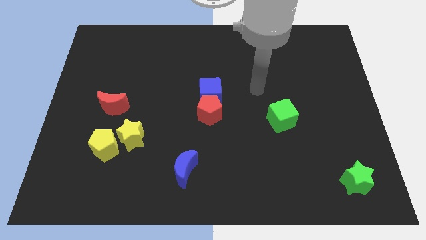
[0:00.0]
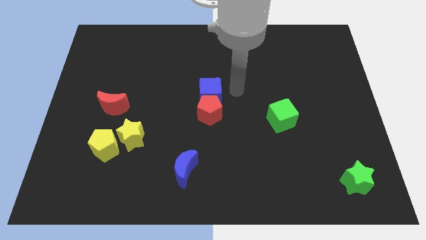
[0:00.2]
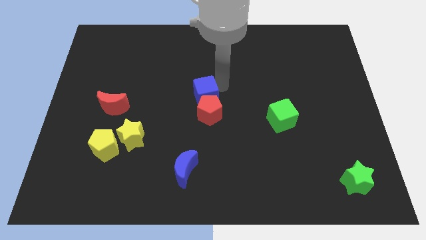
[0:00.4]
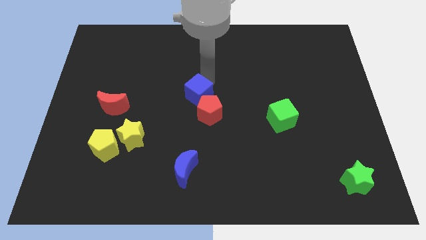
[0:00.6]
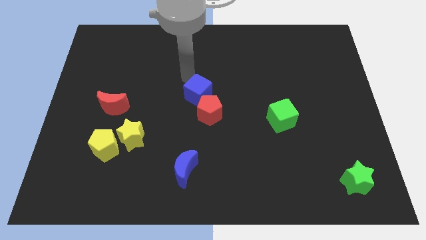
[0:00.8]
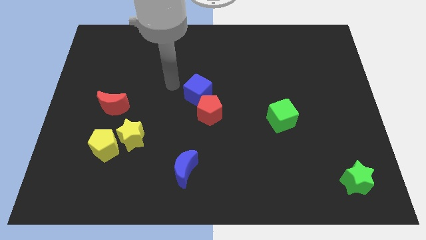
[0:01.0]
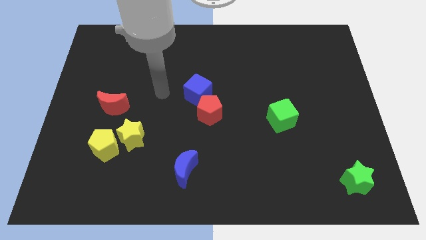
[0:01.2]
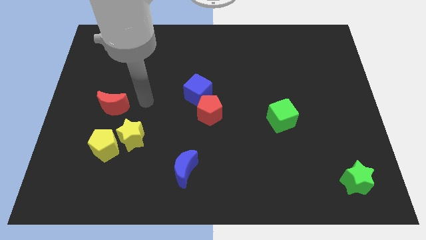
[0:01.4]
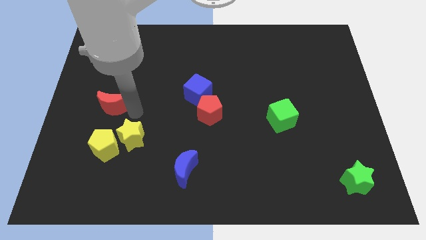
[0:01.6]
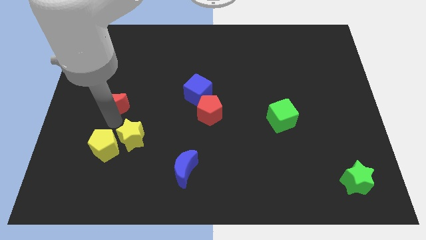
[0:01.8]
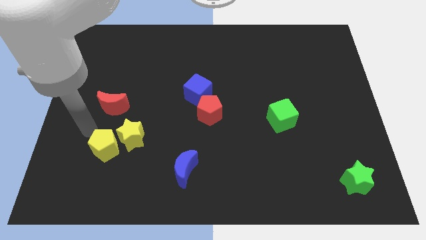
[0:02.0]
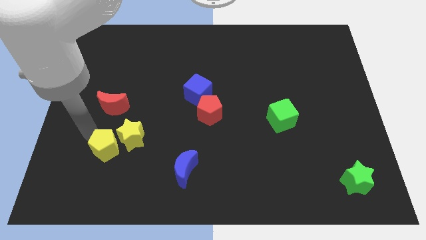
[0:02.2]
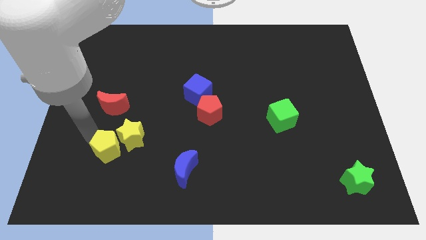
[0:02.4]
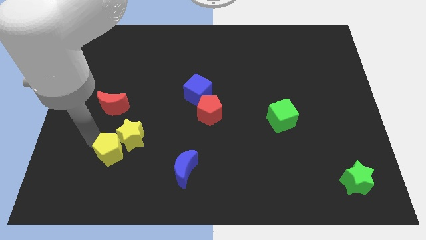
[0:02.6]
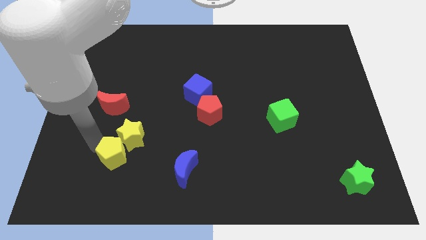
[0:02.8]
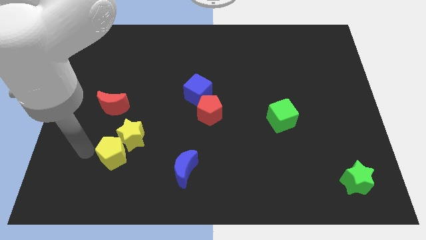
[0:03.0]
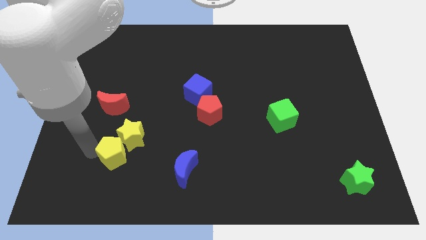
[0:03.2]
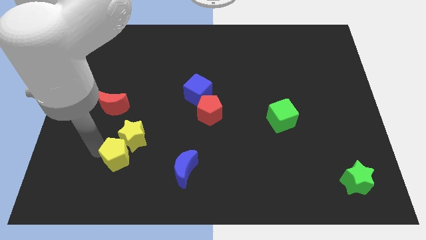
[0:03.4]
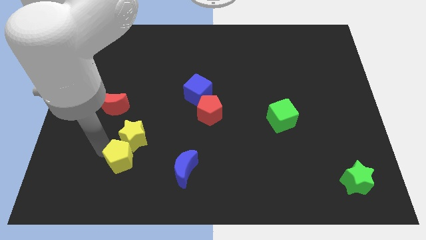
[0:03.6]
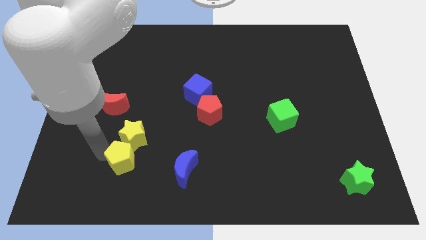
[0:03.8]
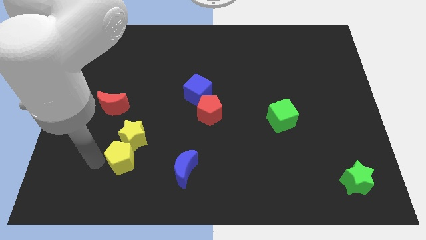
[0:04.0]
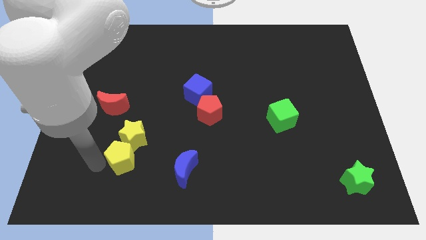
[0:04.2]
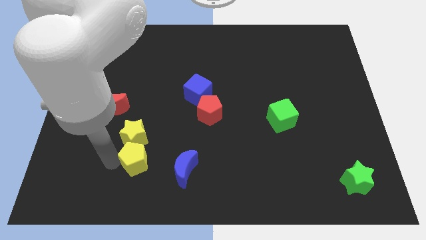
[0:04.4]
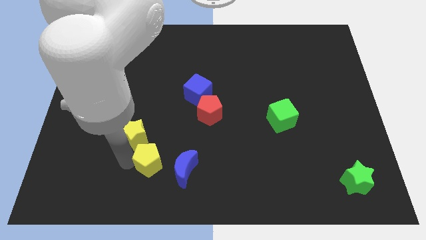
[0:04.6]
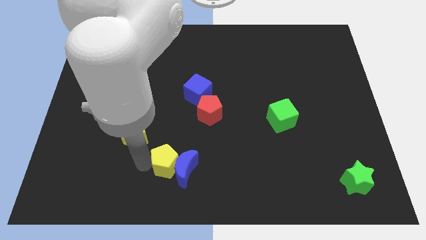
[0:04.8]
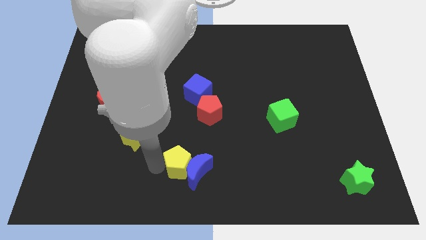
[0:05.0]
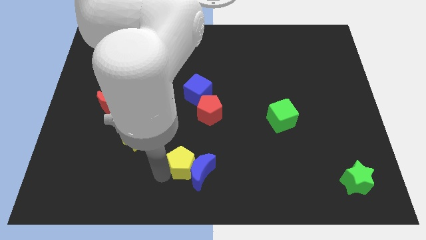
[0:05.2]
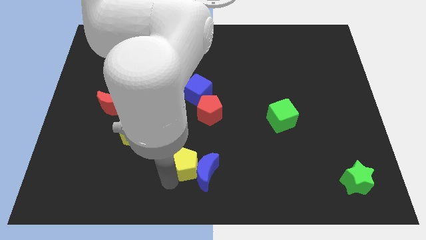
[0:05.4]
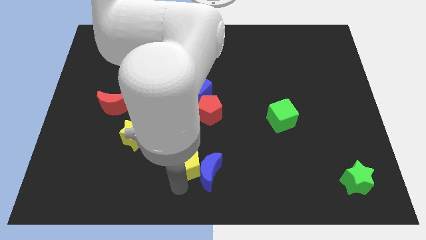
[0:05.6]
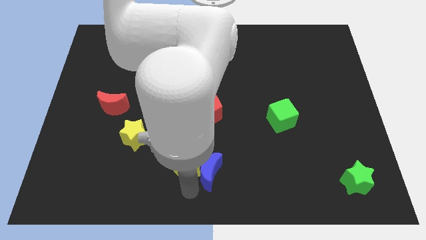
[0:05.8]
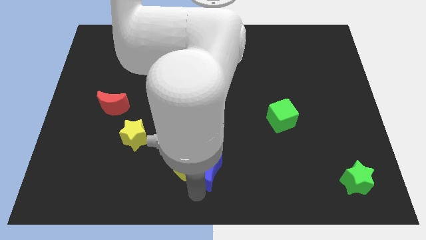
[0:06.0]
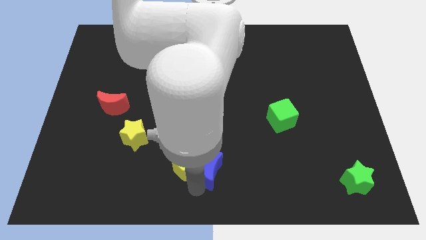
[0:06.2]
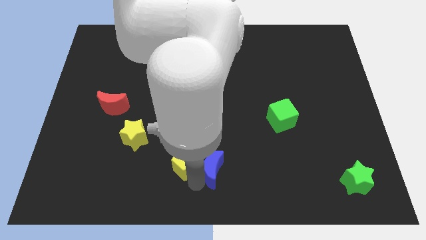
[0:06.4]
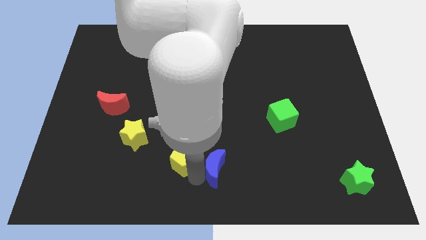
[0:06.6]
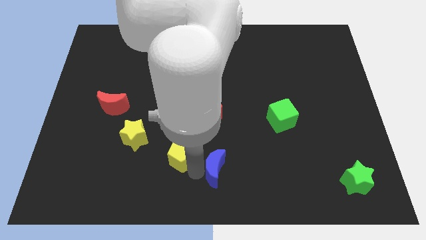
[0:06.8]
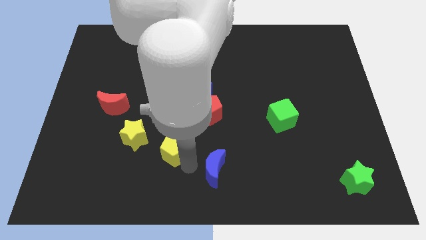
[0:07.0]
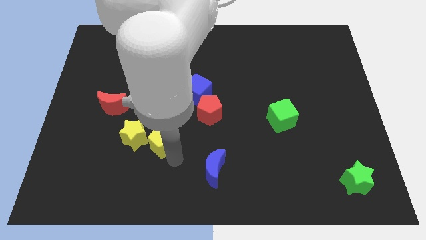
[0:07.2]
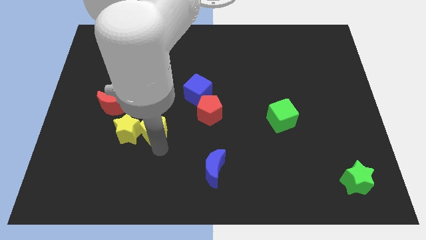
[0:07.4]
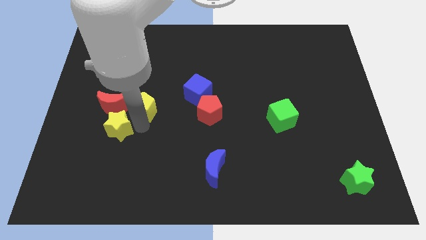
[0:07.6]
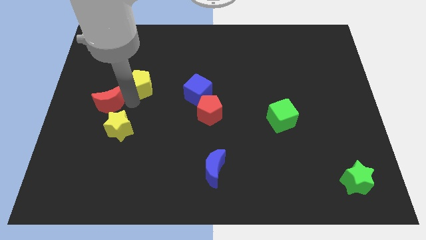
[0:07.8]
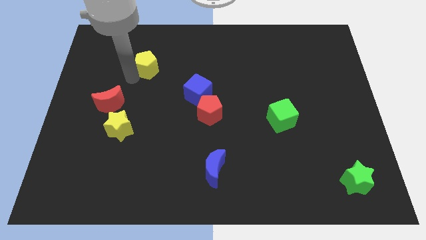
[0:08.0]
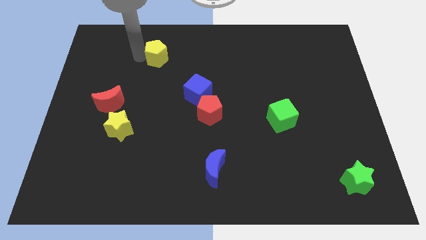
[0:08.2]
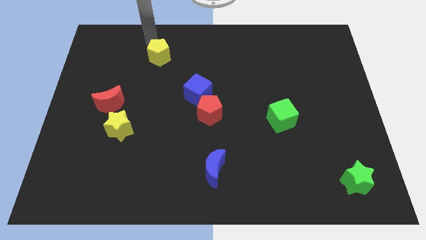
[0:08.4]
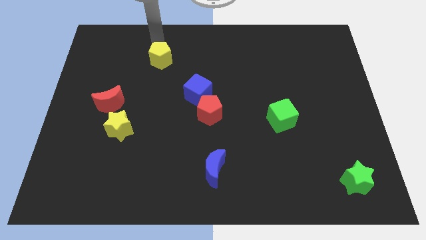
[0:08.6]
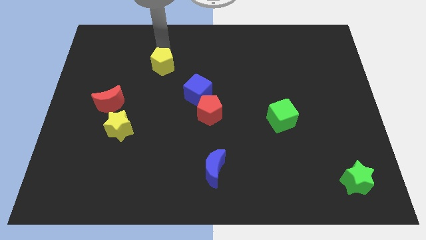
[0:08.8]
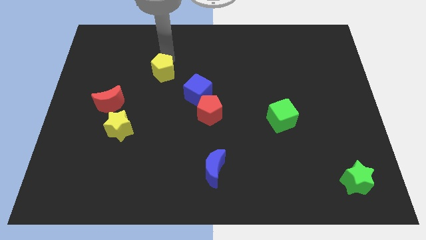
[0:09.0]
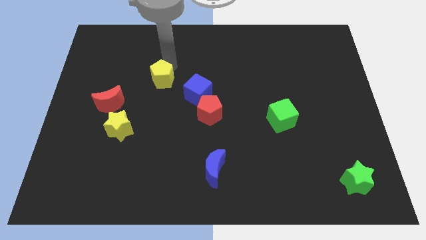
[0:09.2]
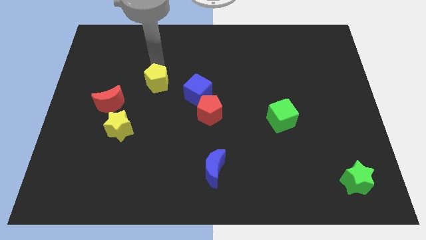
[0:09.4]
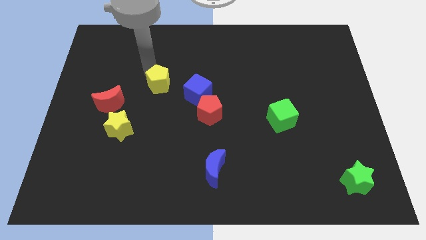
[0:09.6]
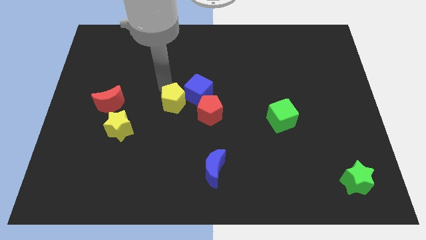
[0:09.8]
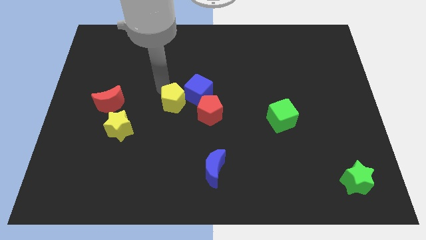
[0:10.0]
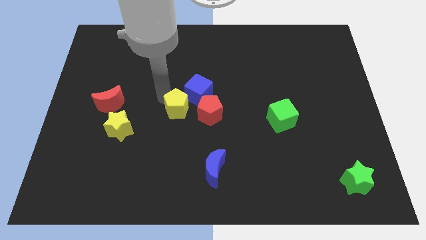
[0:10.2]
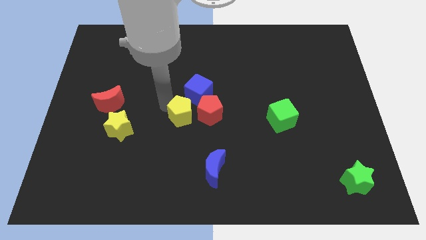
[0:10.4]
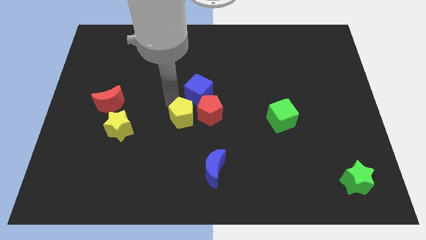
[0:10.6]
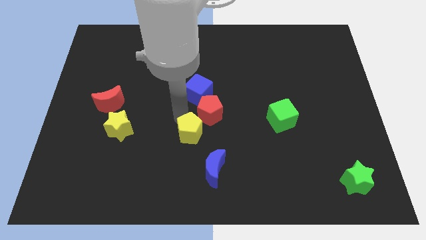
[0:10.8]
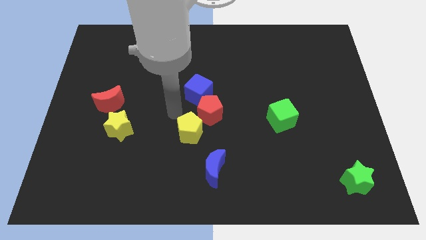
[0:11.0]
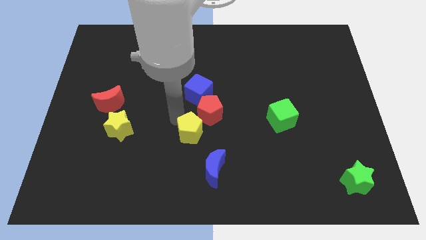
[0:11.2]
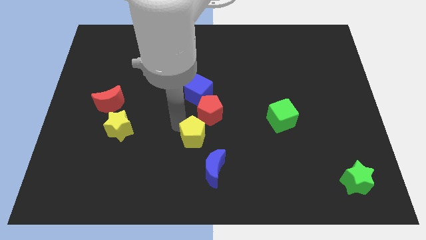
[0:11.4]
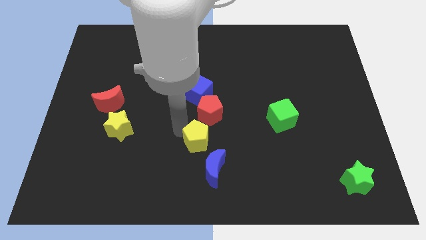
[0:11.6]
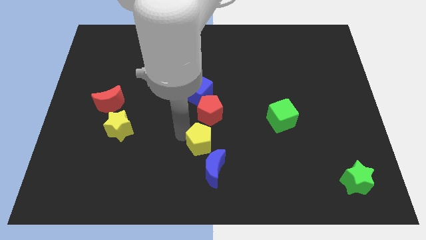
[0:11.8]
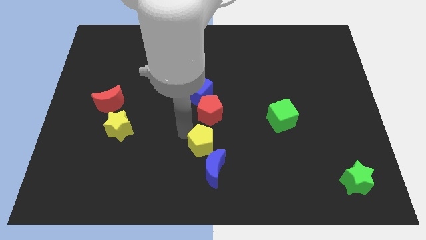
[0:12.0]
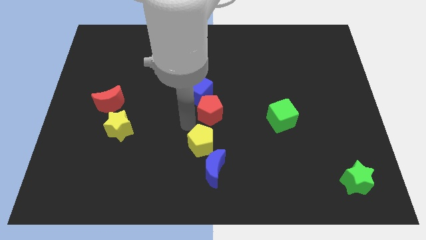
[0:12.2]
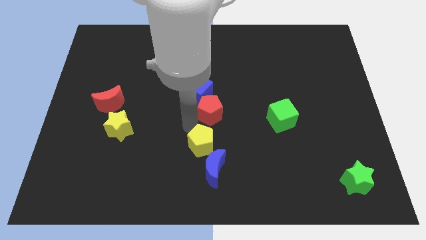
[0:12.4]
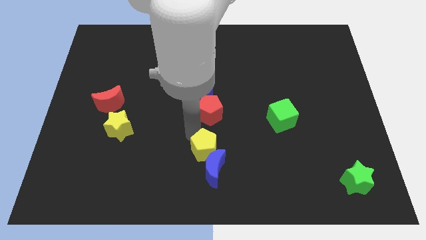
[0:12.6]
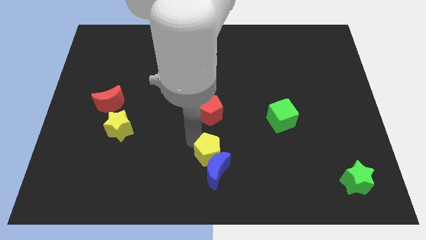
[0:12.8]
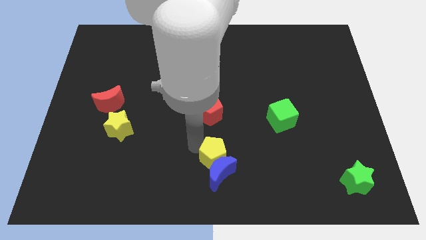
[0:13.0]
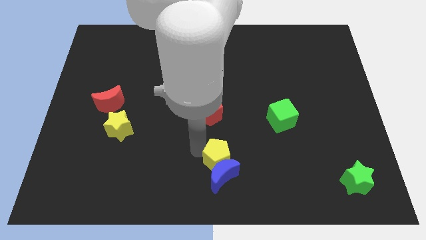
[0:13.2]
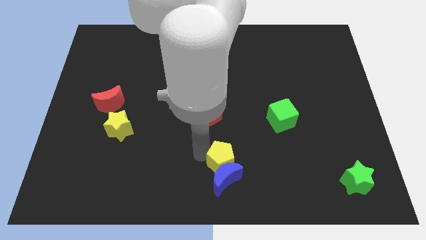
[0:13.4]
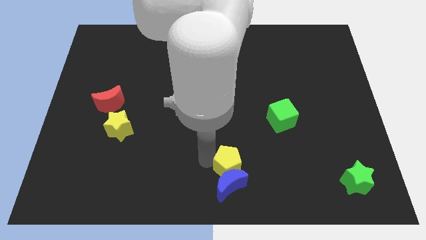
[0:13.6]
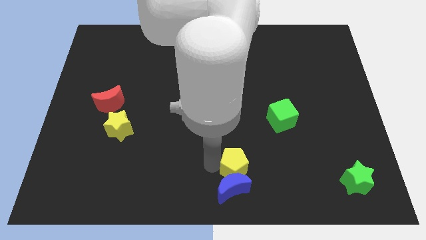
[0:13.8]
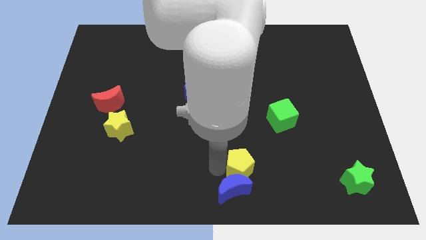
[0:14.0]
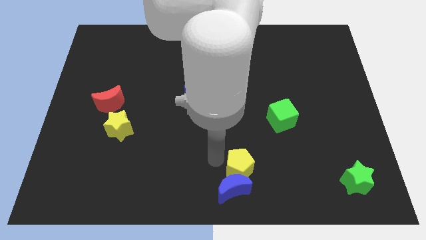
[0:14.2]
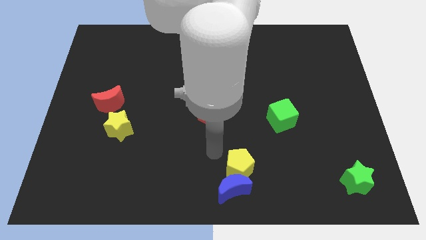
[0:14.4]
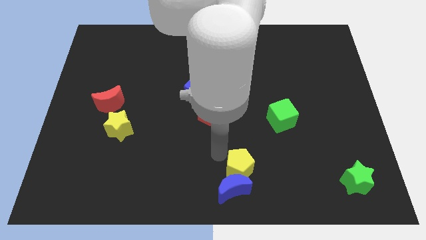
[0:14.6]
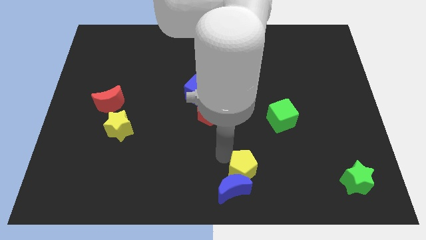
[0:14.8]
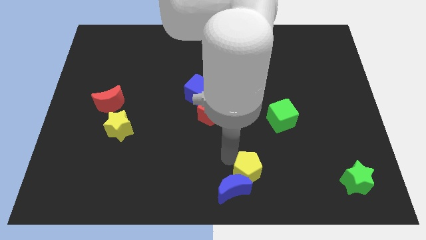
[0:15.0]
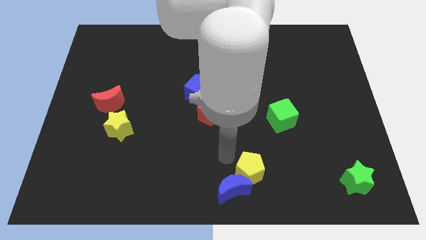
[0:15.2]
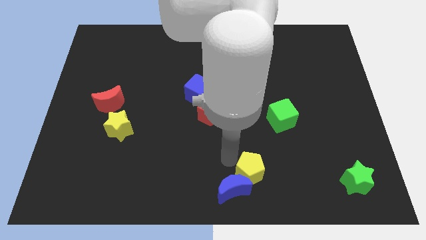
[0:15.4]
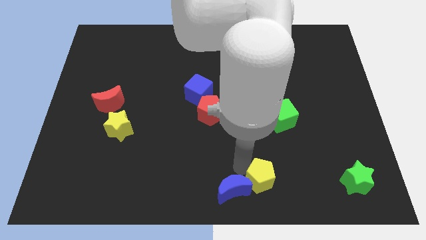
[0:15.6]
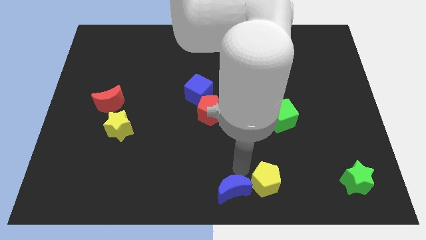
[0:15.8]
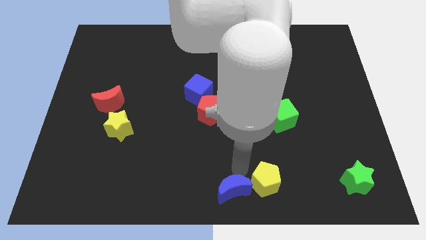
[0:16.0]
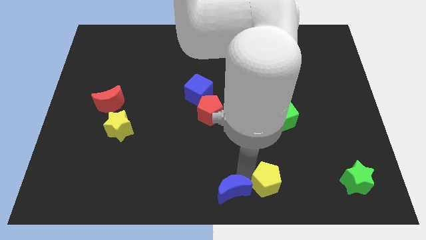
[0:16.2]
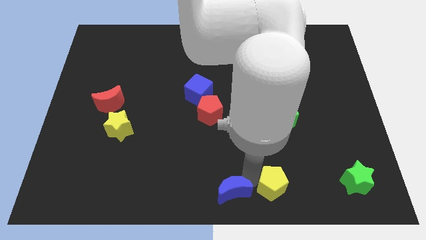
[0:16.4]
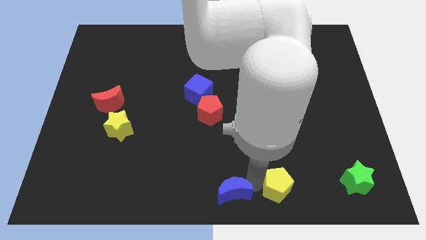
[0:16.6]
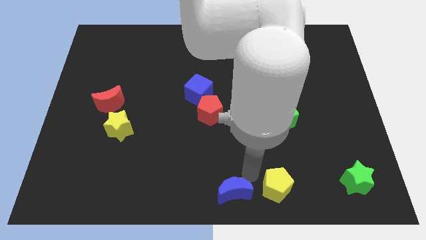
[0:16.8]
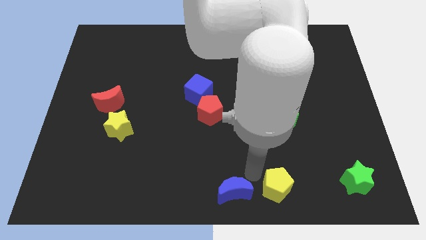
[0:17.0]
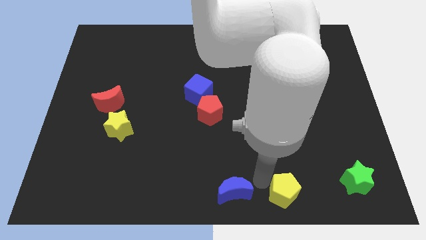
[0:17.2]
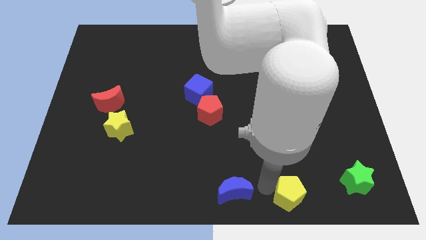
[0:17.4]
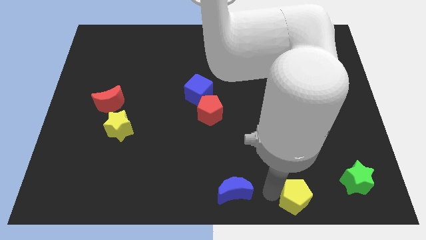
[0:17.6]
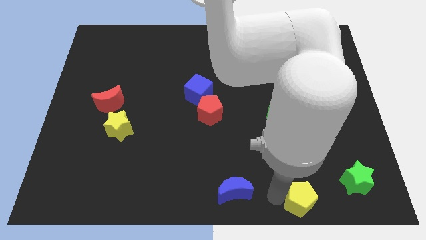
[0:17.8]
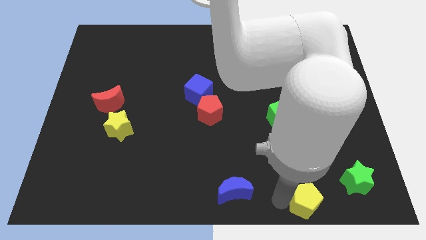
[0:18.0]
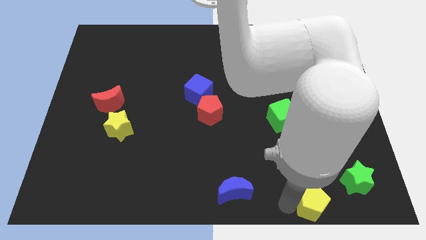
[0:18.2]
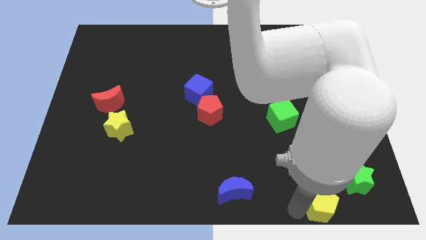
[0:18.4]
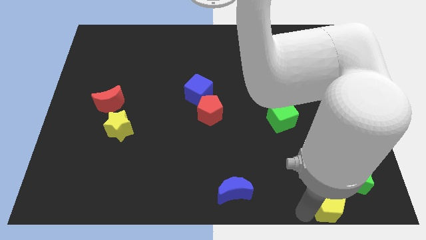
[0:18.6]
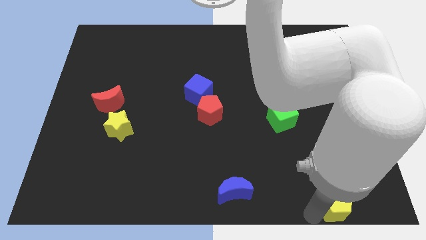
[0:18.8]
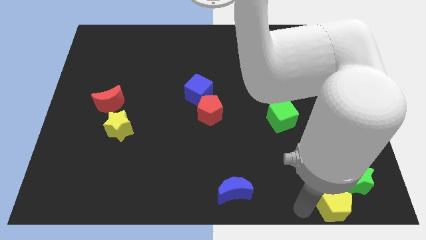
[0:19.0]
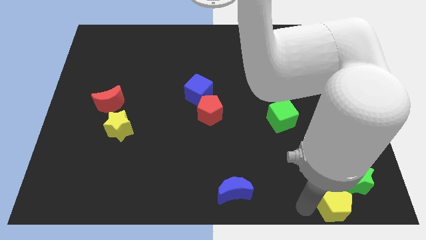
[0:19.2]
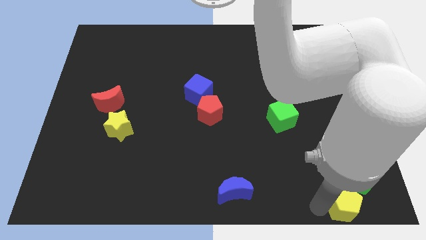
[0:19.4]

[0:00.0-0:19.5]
put the yellow pentagon to the bottom right
